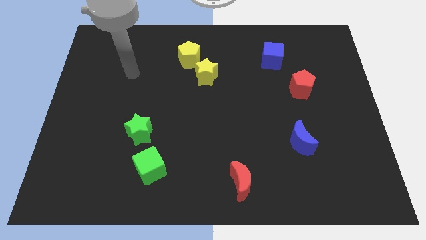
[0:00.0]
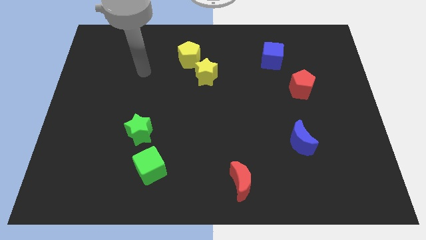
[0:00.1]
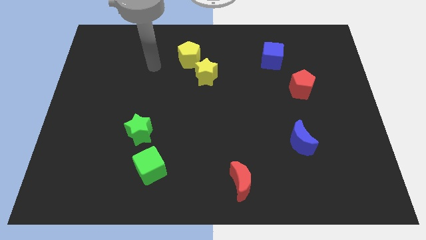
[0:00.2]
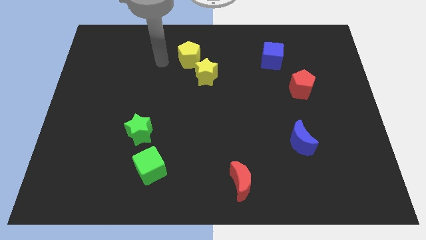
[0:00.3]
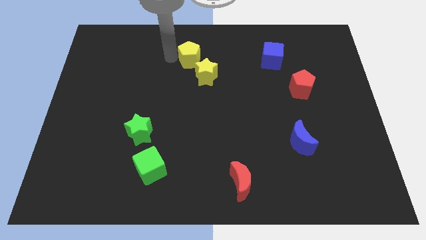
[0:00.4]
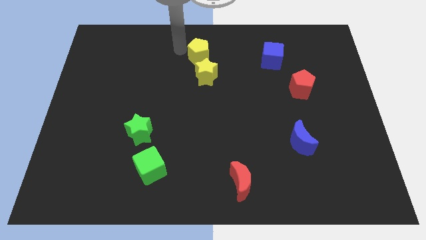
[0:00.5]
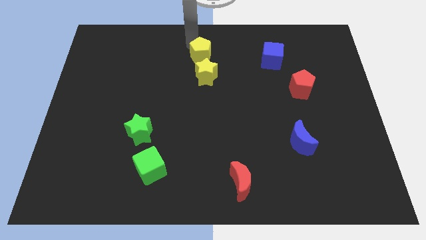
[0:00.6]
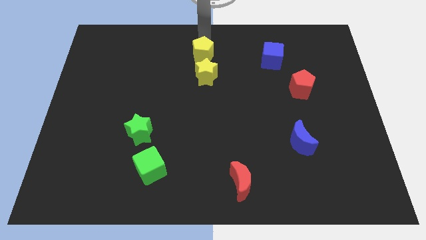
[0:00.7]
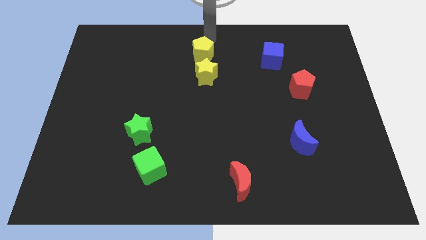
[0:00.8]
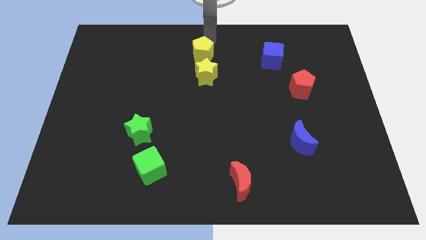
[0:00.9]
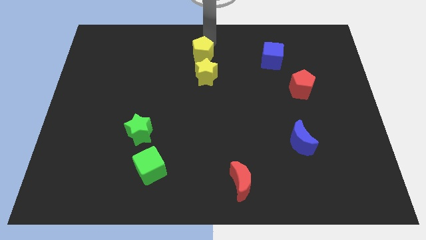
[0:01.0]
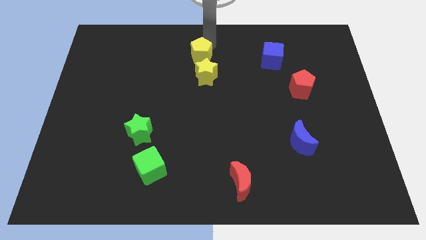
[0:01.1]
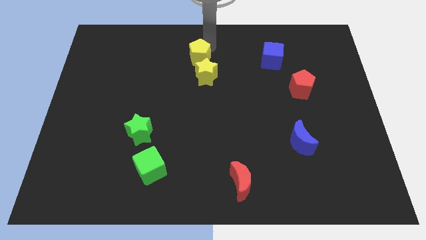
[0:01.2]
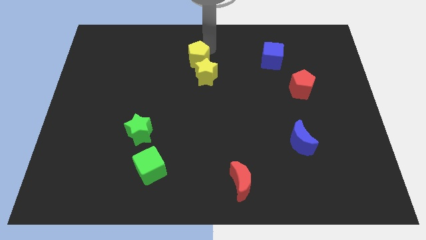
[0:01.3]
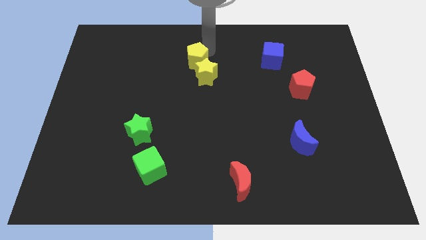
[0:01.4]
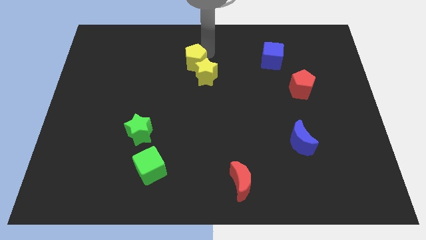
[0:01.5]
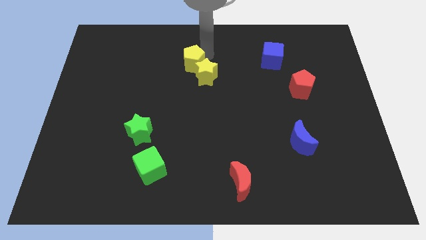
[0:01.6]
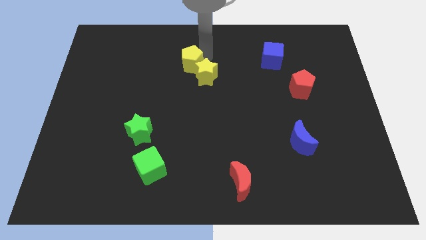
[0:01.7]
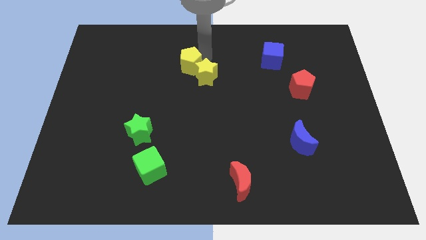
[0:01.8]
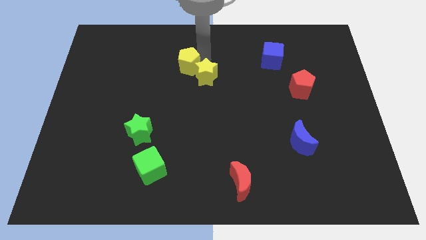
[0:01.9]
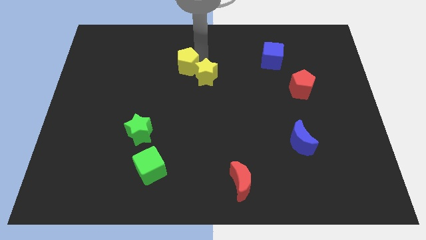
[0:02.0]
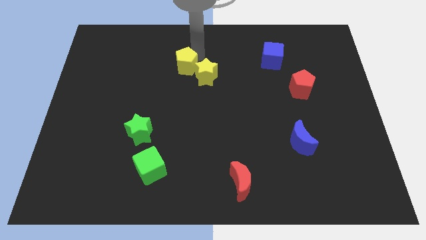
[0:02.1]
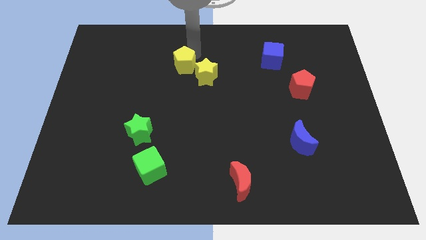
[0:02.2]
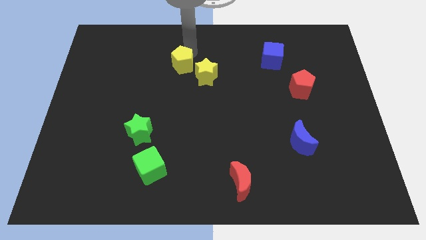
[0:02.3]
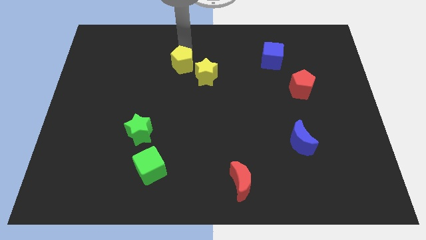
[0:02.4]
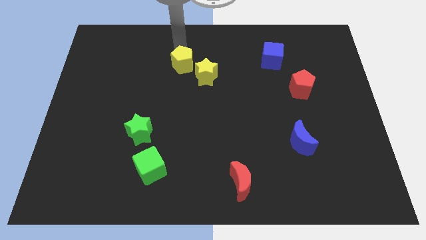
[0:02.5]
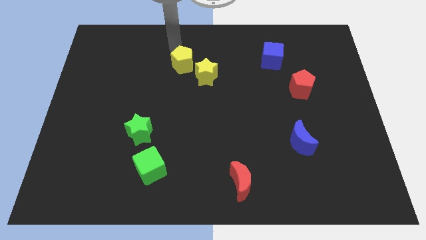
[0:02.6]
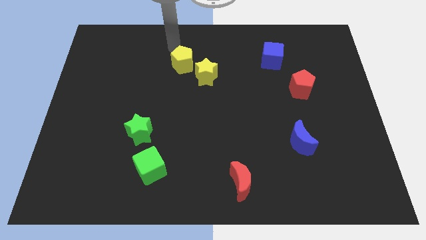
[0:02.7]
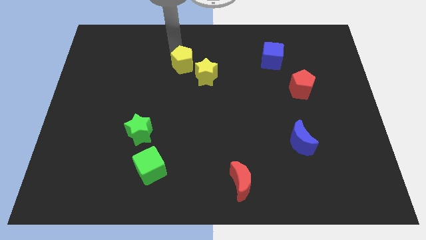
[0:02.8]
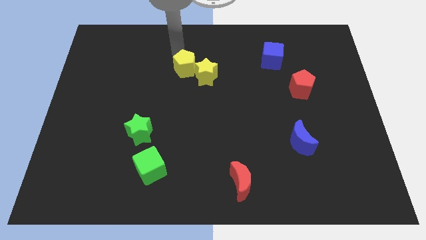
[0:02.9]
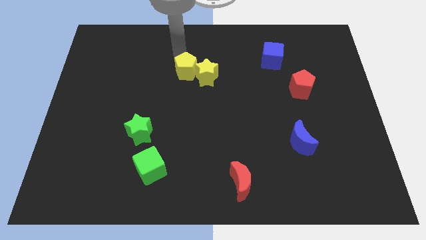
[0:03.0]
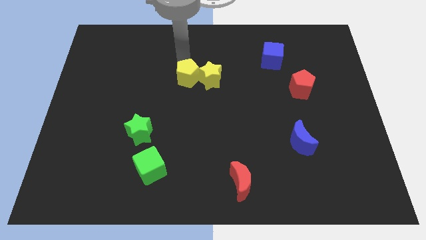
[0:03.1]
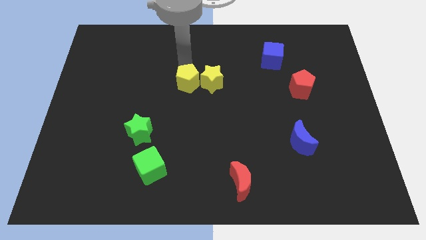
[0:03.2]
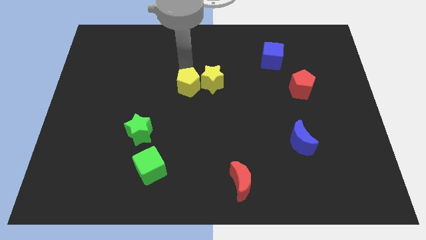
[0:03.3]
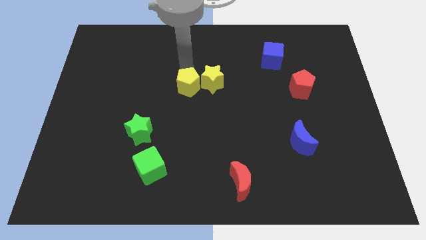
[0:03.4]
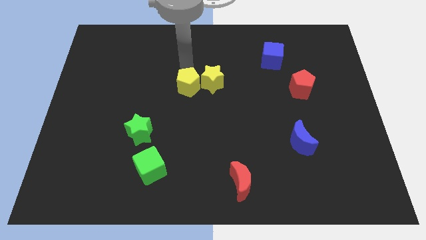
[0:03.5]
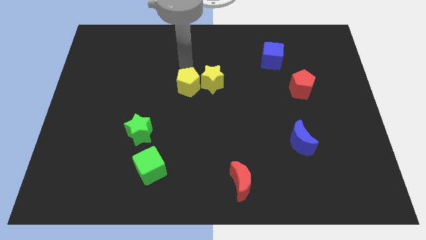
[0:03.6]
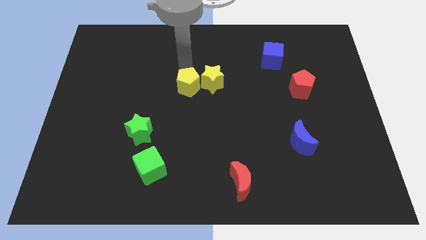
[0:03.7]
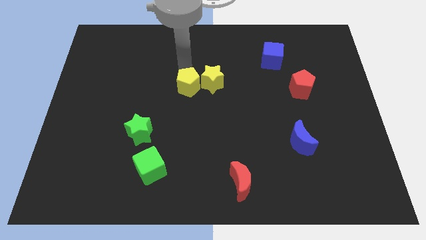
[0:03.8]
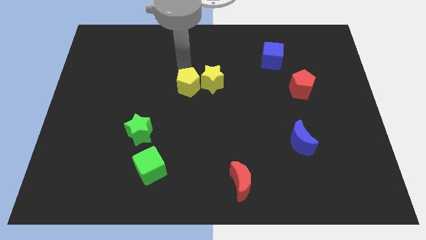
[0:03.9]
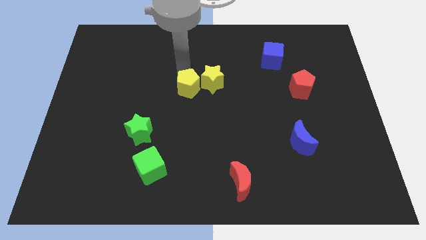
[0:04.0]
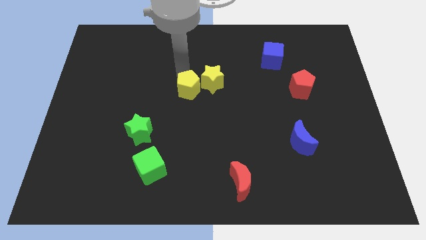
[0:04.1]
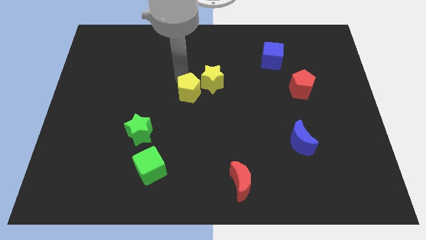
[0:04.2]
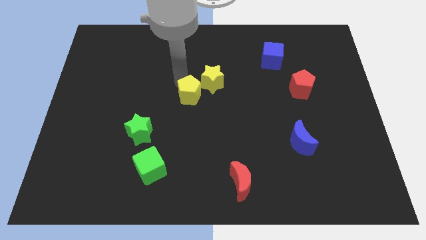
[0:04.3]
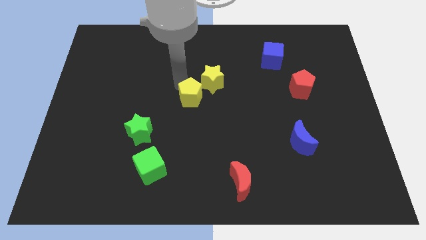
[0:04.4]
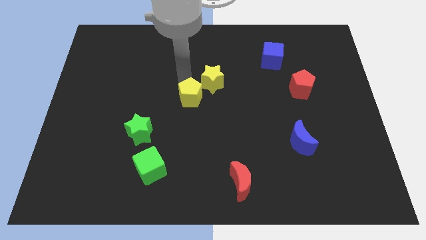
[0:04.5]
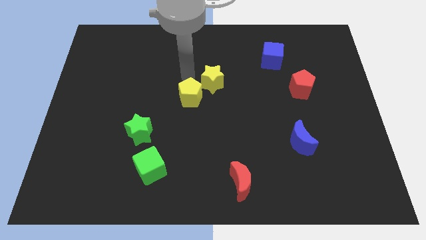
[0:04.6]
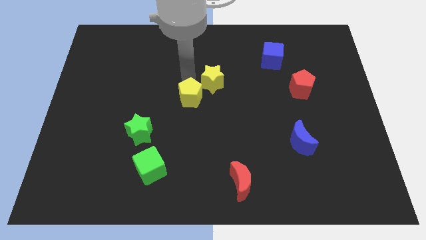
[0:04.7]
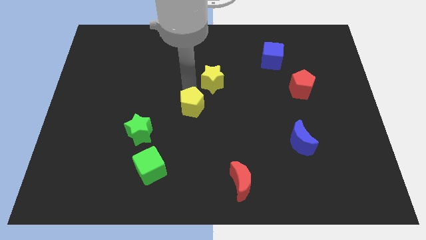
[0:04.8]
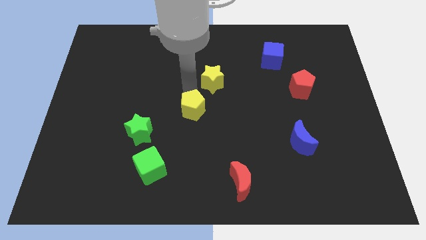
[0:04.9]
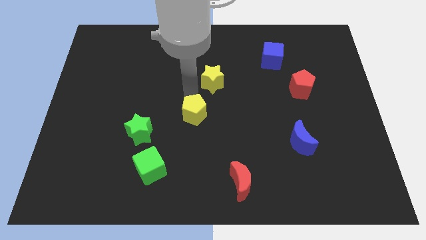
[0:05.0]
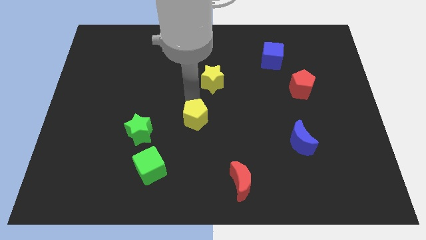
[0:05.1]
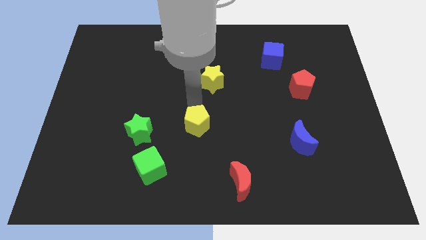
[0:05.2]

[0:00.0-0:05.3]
slide the yellow pentagon down

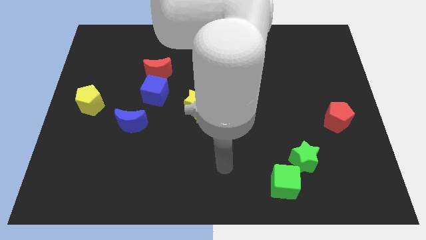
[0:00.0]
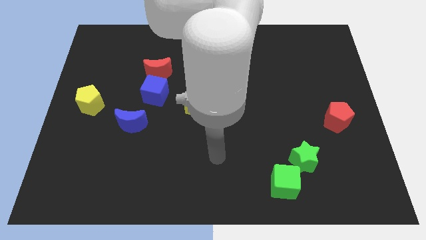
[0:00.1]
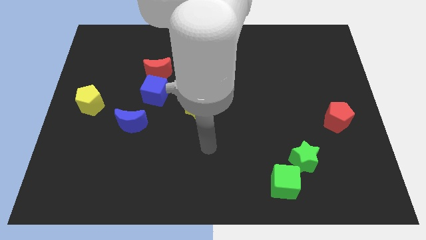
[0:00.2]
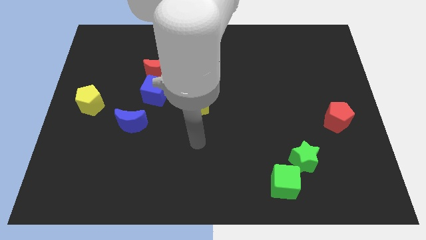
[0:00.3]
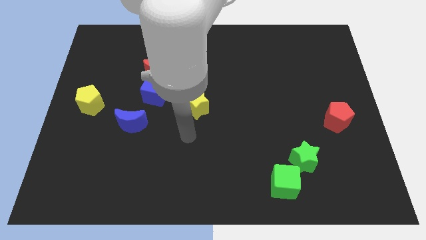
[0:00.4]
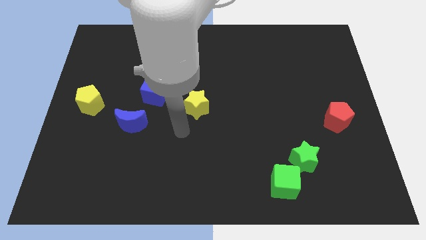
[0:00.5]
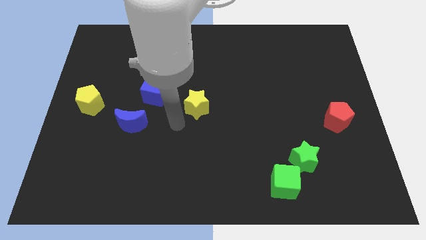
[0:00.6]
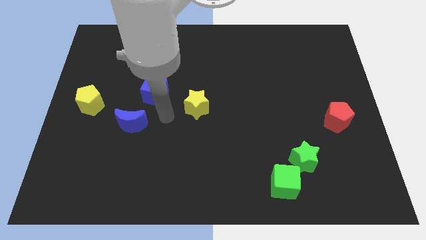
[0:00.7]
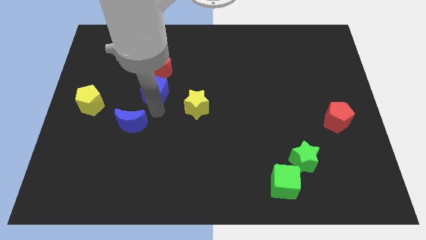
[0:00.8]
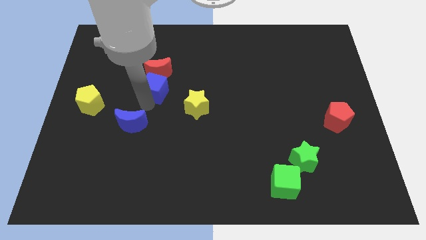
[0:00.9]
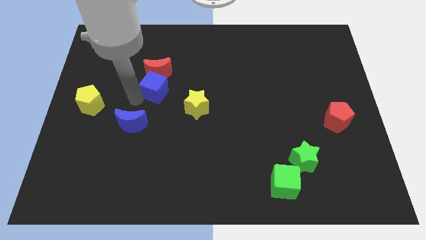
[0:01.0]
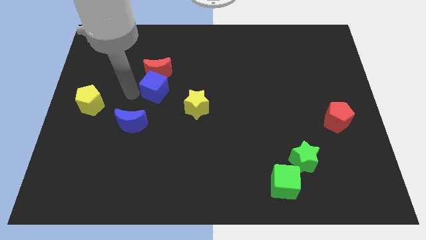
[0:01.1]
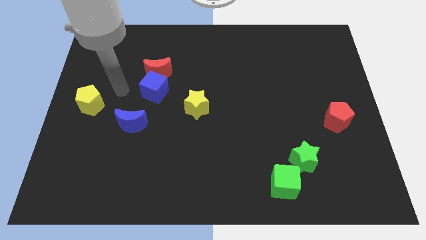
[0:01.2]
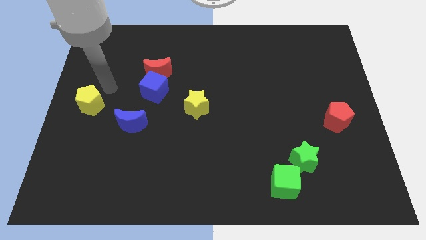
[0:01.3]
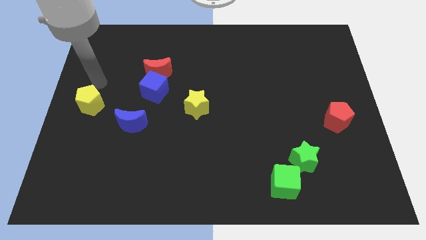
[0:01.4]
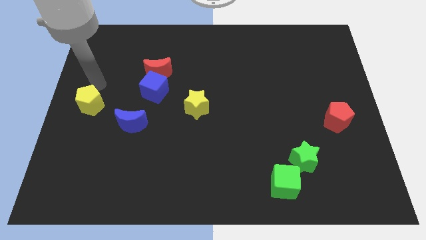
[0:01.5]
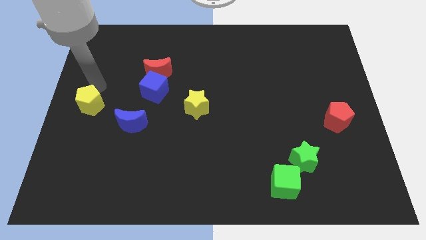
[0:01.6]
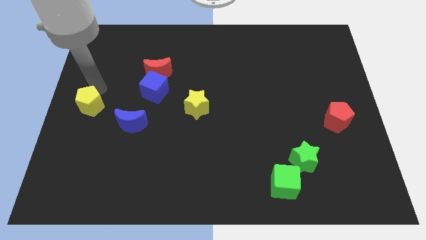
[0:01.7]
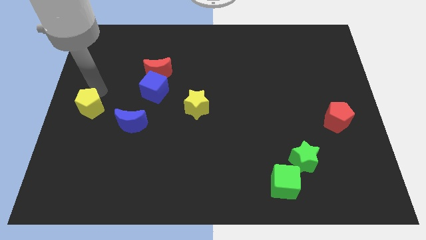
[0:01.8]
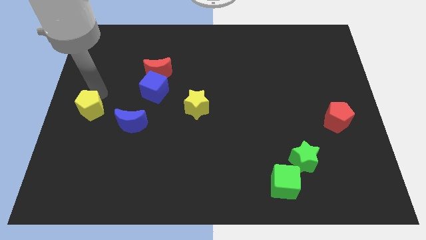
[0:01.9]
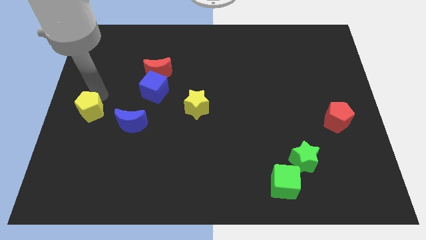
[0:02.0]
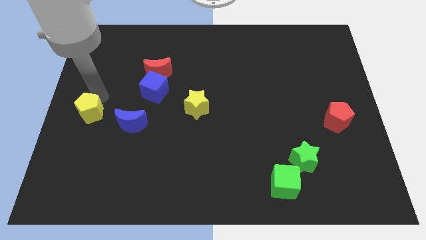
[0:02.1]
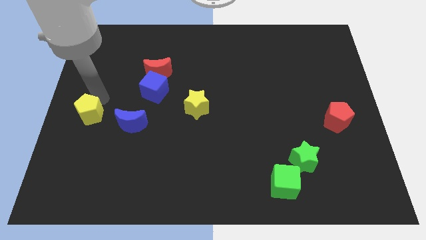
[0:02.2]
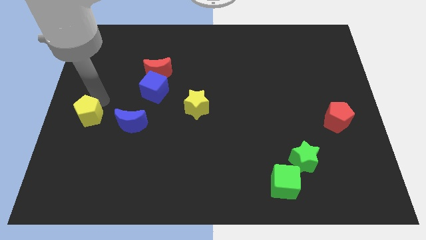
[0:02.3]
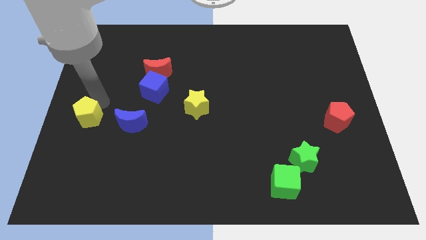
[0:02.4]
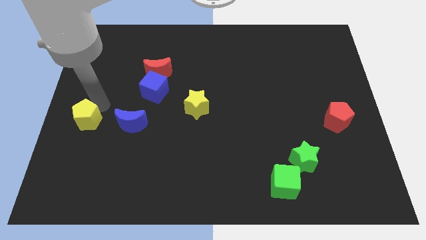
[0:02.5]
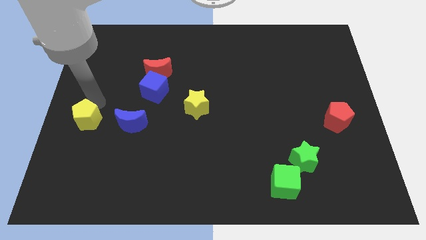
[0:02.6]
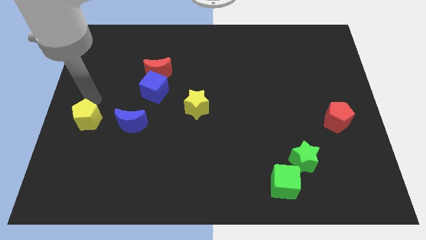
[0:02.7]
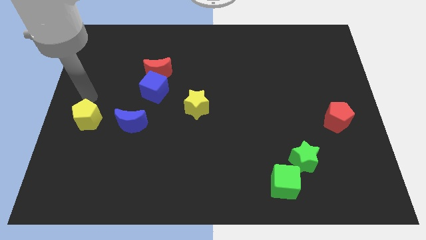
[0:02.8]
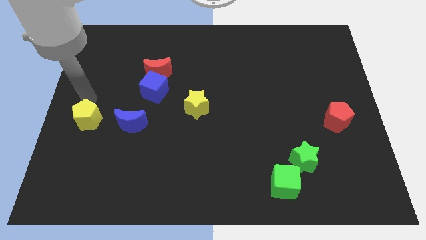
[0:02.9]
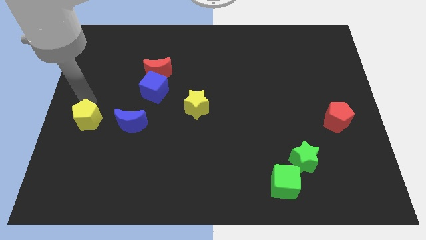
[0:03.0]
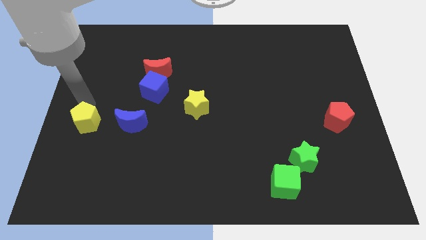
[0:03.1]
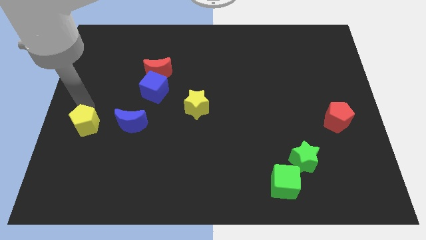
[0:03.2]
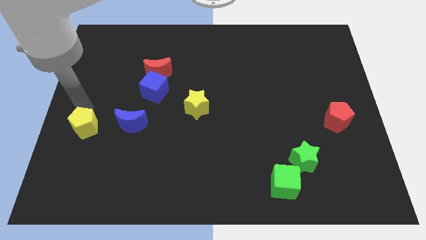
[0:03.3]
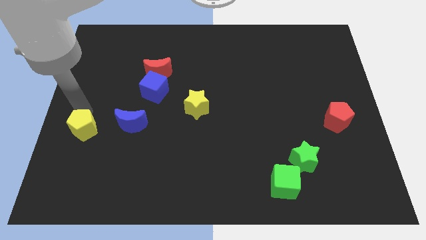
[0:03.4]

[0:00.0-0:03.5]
push the yellow pentagon somewhat downwards
